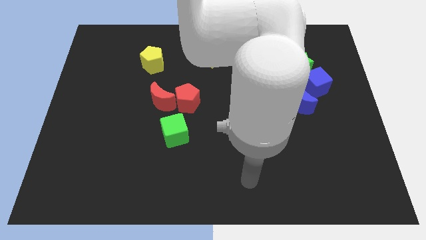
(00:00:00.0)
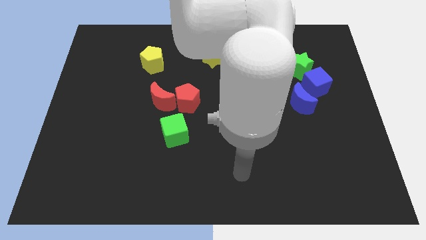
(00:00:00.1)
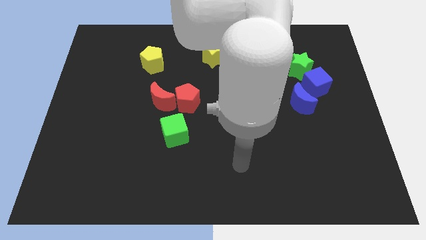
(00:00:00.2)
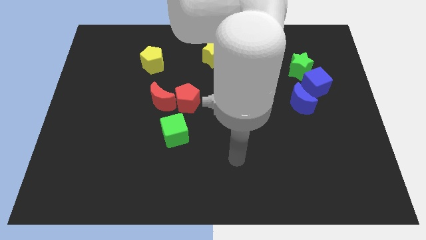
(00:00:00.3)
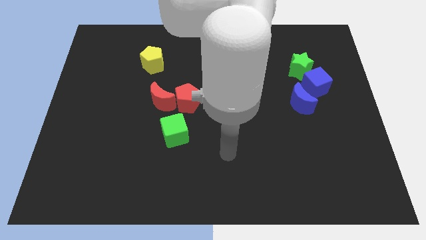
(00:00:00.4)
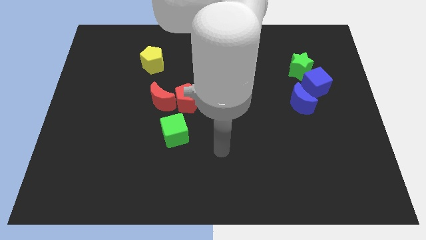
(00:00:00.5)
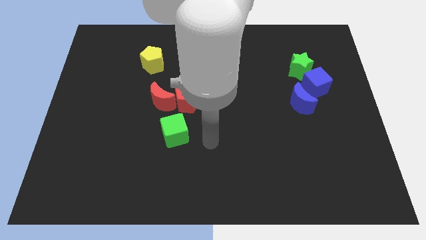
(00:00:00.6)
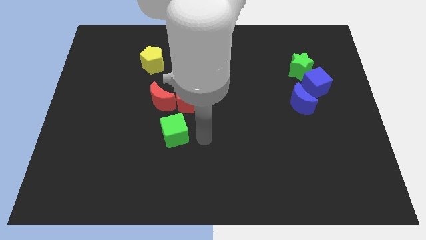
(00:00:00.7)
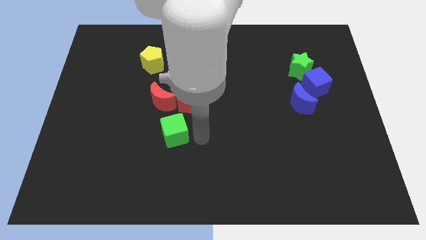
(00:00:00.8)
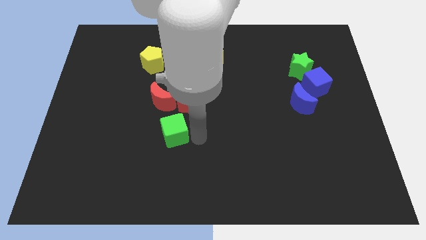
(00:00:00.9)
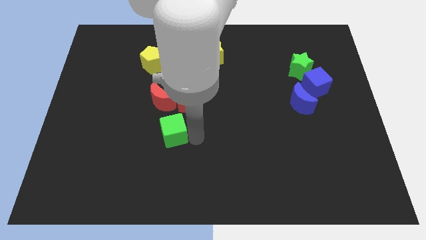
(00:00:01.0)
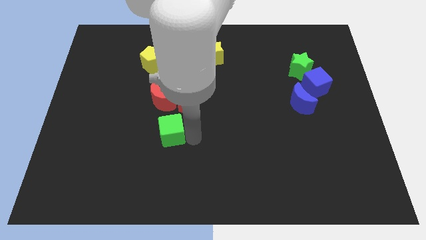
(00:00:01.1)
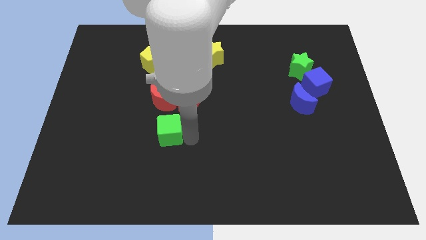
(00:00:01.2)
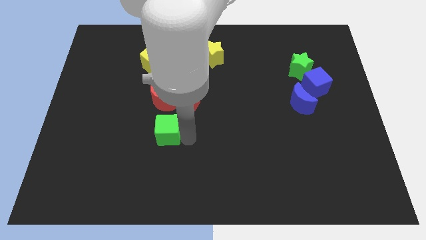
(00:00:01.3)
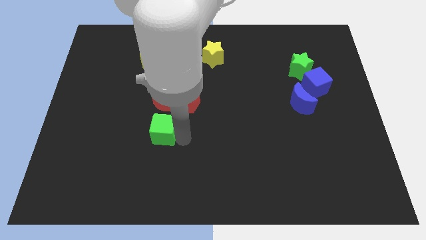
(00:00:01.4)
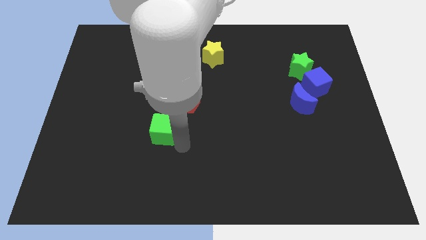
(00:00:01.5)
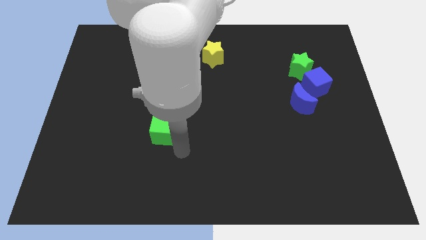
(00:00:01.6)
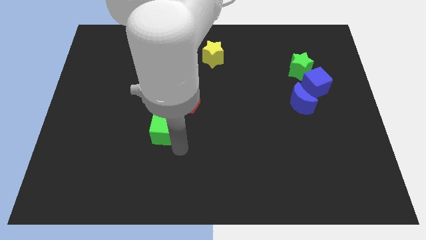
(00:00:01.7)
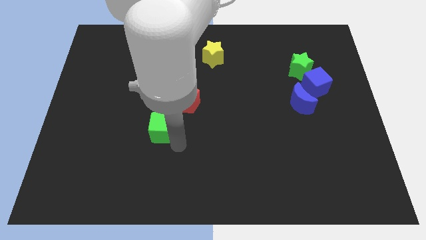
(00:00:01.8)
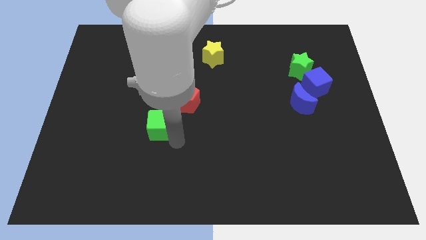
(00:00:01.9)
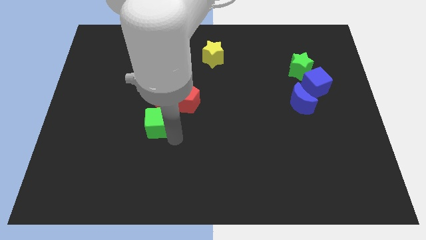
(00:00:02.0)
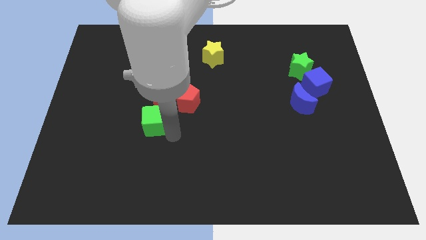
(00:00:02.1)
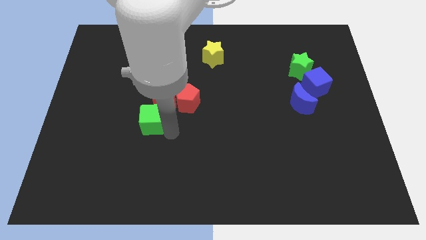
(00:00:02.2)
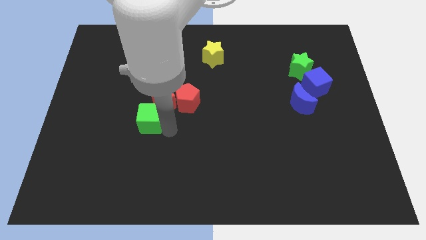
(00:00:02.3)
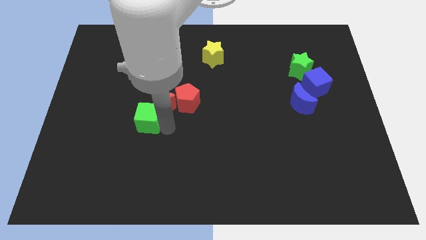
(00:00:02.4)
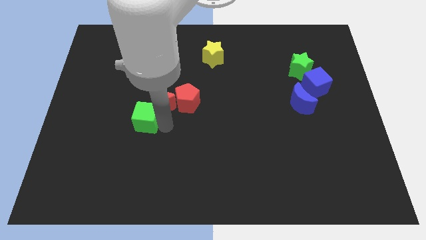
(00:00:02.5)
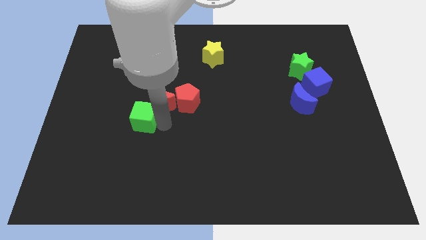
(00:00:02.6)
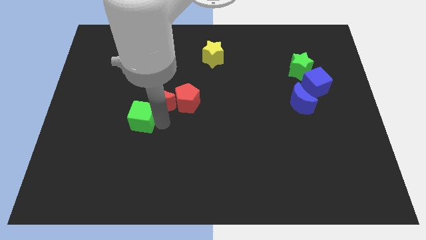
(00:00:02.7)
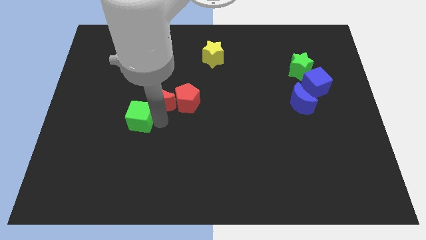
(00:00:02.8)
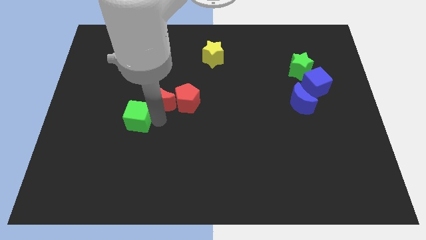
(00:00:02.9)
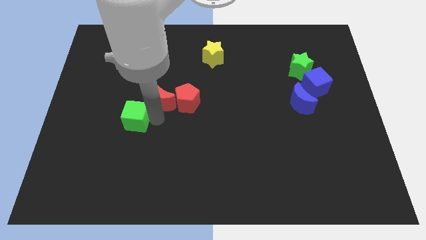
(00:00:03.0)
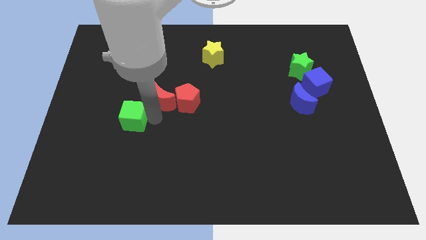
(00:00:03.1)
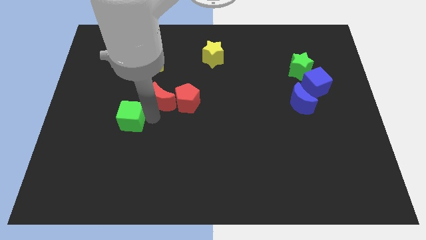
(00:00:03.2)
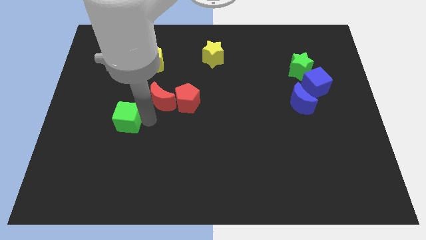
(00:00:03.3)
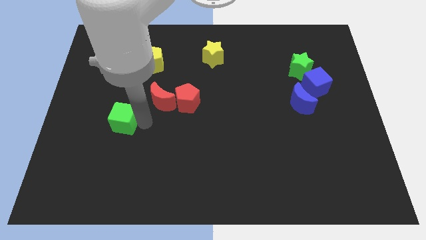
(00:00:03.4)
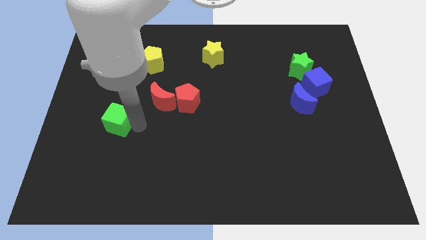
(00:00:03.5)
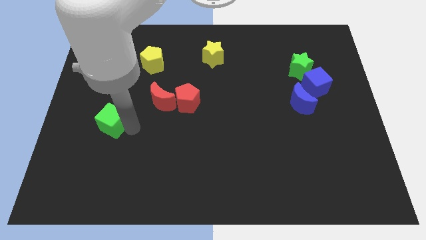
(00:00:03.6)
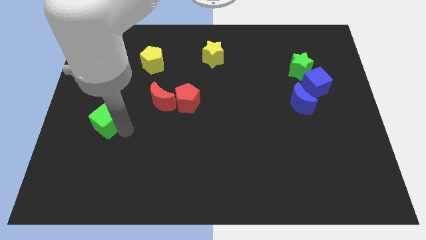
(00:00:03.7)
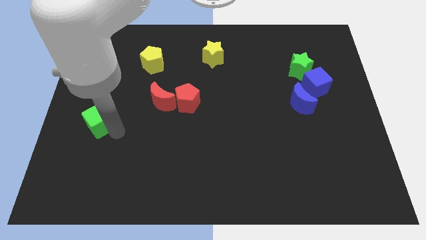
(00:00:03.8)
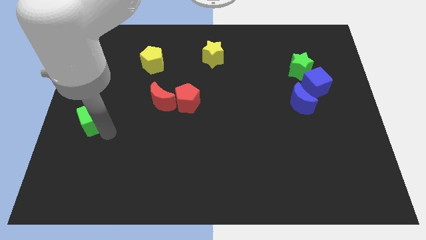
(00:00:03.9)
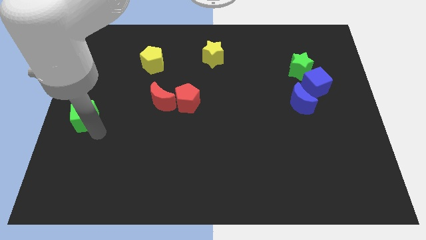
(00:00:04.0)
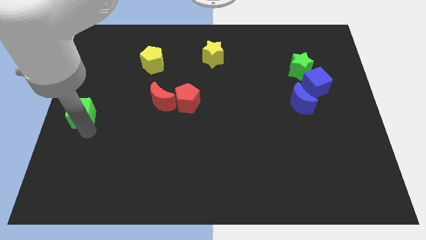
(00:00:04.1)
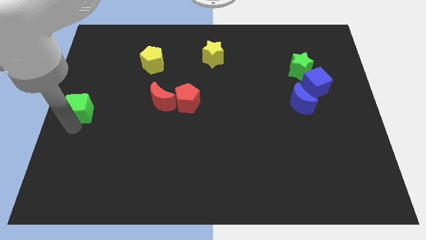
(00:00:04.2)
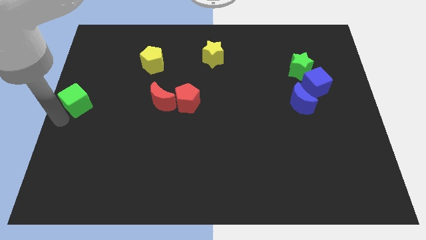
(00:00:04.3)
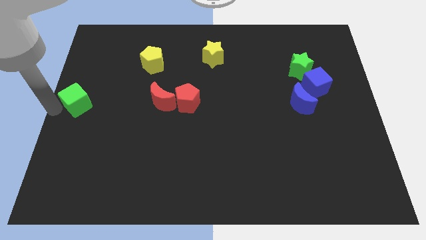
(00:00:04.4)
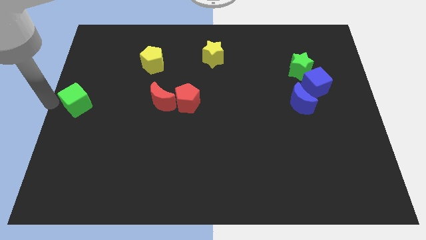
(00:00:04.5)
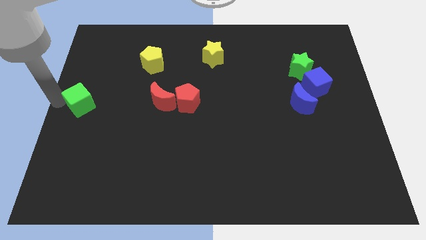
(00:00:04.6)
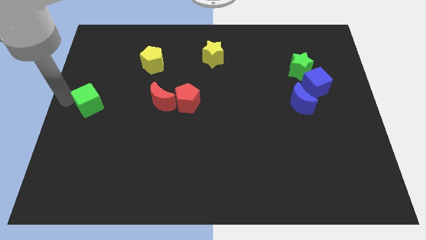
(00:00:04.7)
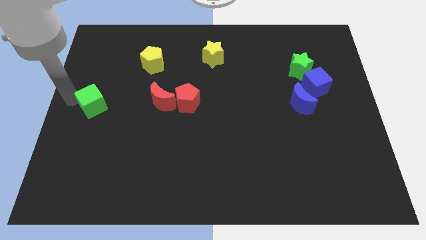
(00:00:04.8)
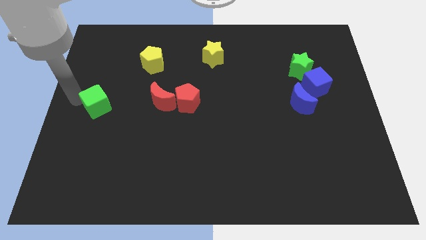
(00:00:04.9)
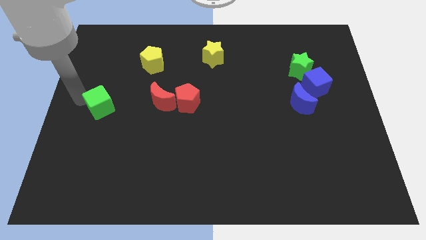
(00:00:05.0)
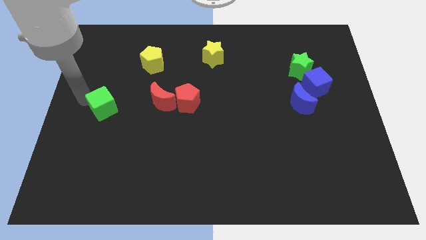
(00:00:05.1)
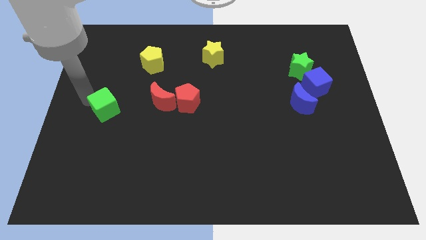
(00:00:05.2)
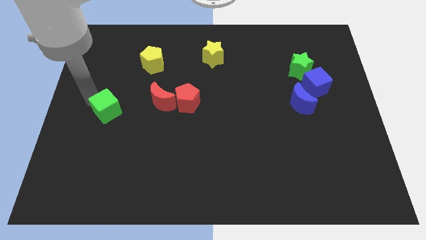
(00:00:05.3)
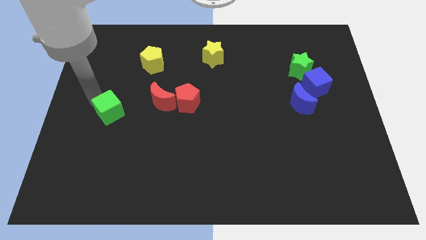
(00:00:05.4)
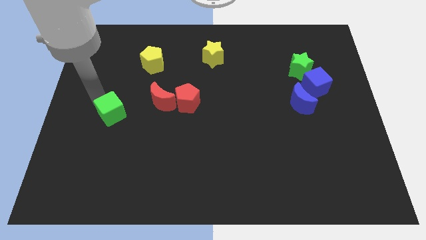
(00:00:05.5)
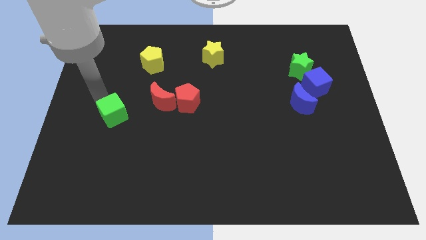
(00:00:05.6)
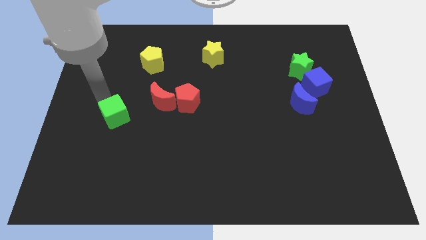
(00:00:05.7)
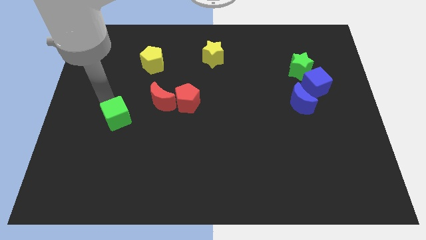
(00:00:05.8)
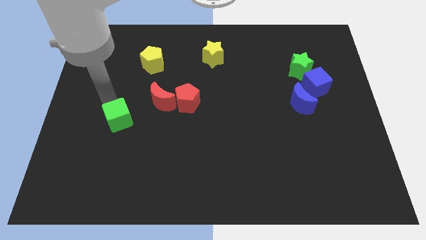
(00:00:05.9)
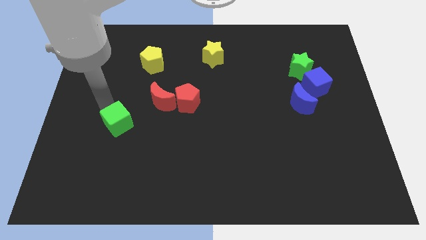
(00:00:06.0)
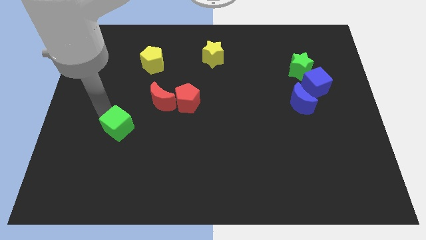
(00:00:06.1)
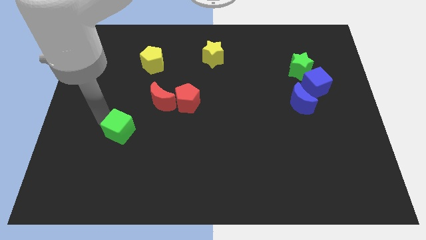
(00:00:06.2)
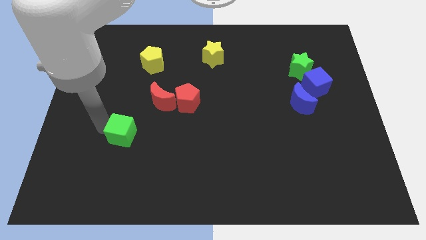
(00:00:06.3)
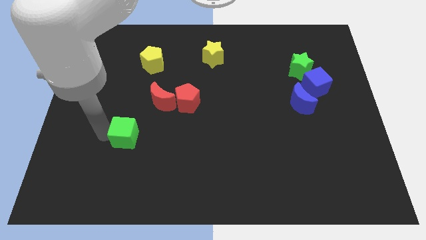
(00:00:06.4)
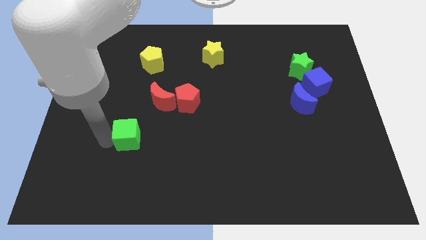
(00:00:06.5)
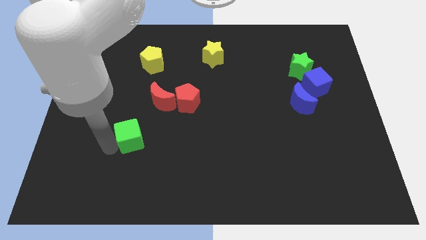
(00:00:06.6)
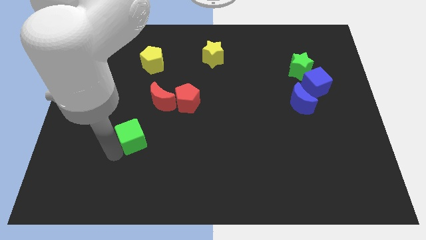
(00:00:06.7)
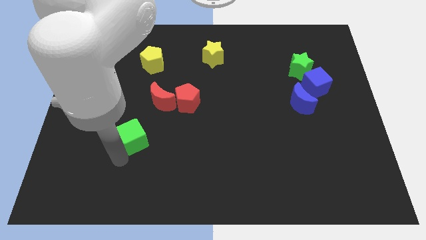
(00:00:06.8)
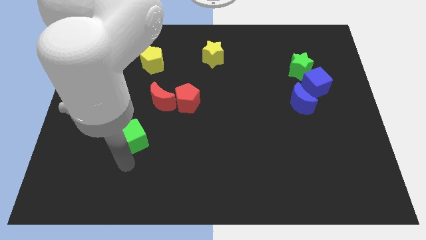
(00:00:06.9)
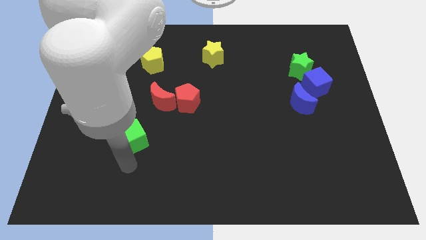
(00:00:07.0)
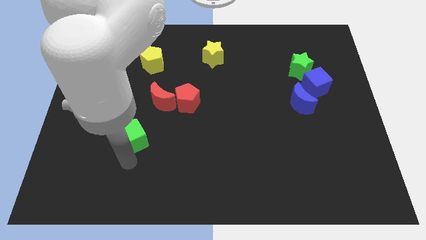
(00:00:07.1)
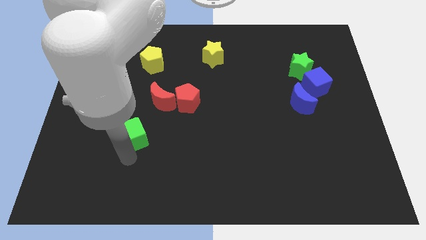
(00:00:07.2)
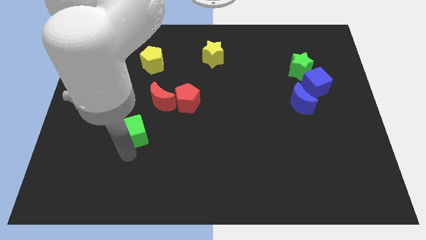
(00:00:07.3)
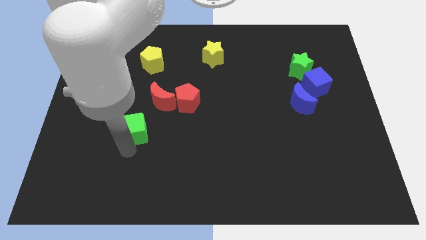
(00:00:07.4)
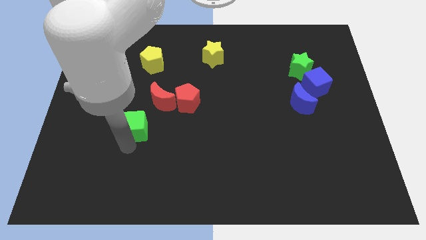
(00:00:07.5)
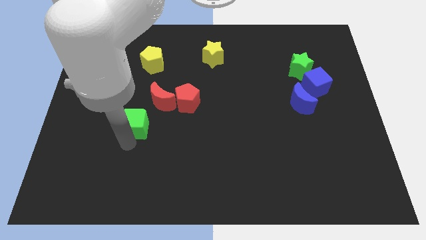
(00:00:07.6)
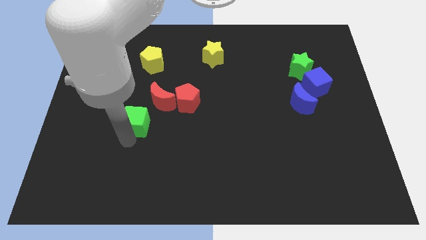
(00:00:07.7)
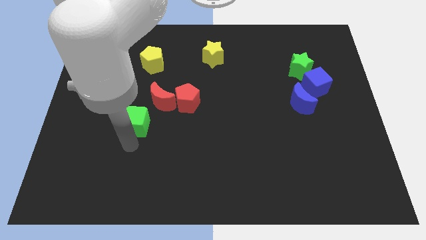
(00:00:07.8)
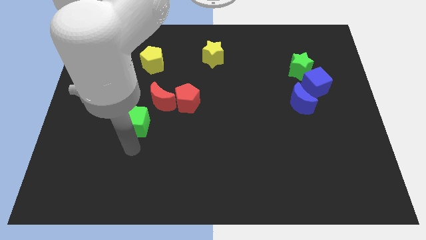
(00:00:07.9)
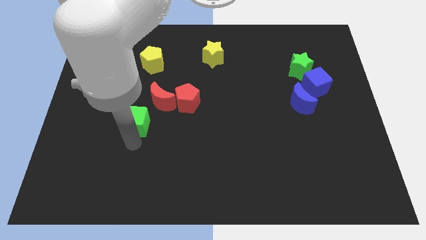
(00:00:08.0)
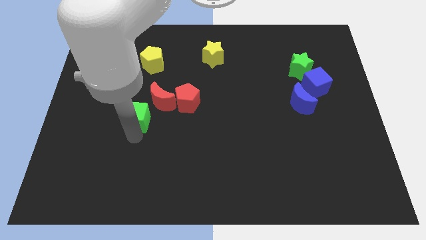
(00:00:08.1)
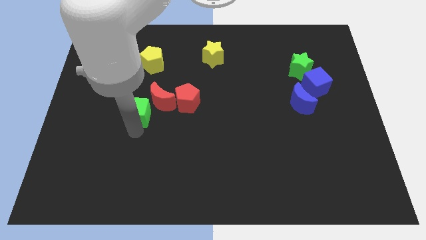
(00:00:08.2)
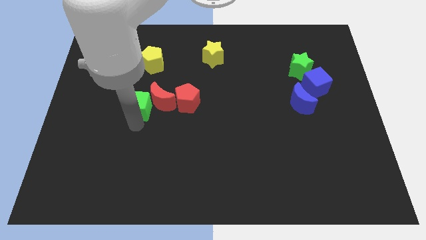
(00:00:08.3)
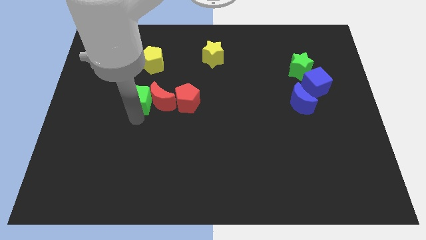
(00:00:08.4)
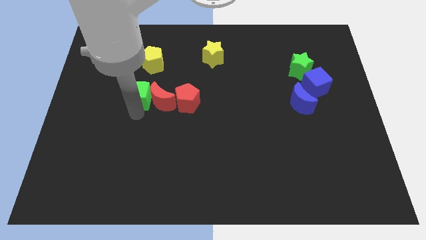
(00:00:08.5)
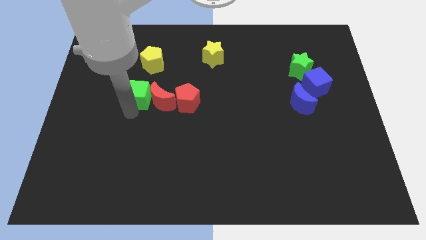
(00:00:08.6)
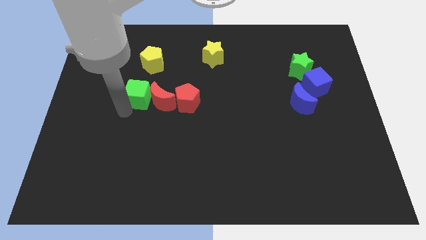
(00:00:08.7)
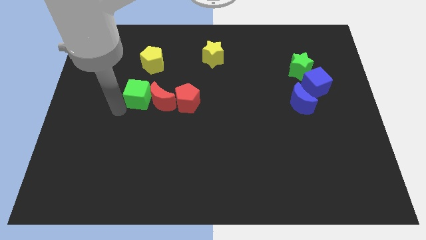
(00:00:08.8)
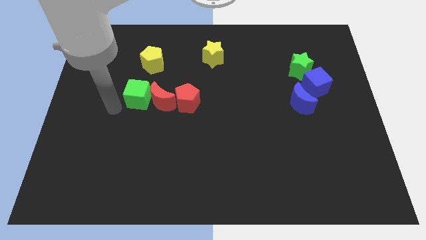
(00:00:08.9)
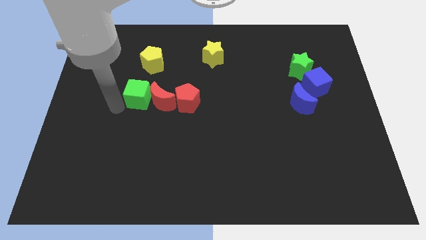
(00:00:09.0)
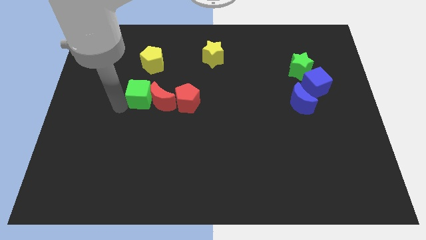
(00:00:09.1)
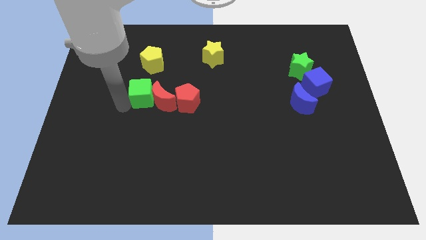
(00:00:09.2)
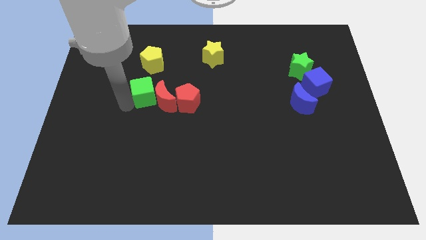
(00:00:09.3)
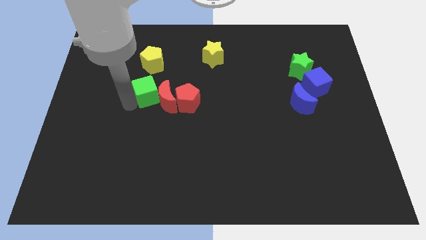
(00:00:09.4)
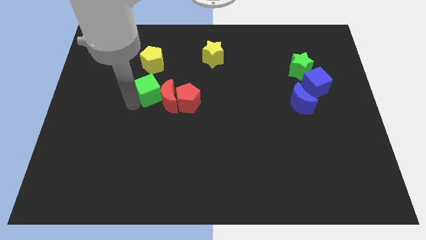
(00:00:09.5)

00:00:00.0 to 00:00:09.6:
push the green cube to the top left side of the red pentagon
